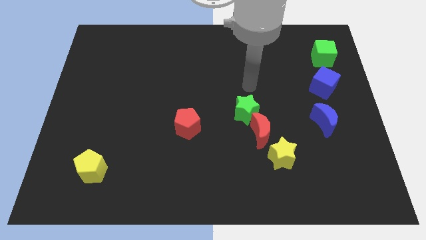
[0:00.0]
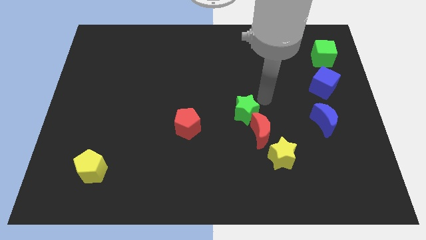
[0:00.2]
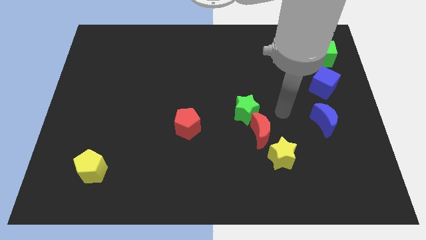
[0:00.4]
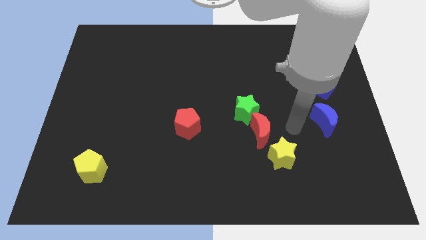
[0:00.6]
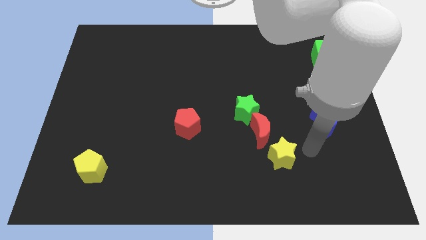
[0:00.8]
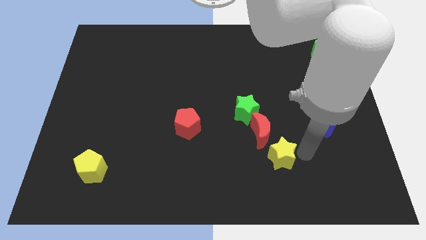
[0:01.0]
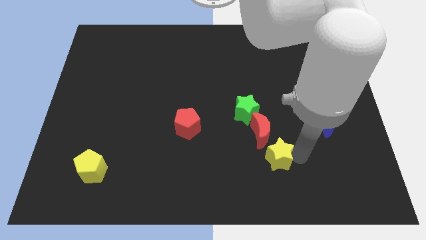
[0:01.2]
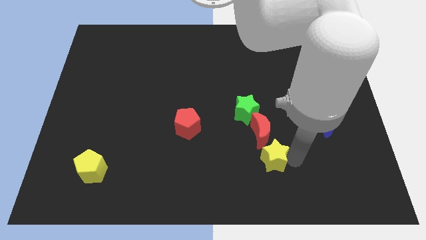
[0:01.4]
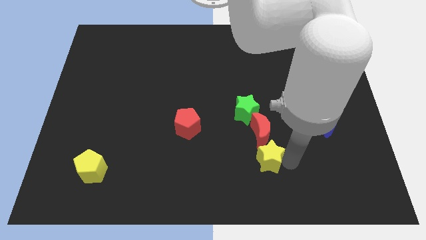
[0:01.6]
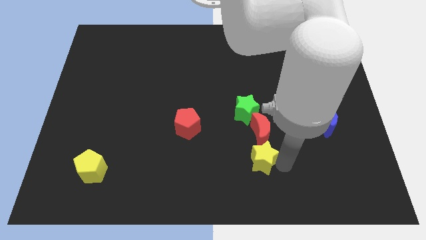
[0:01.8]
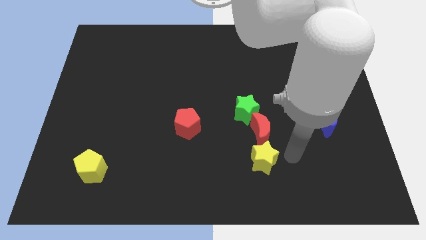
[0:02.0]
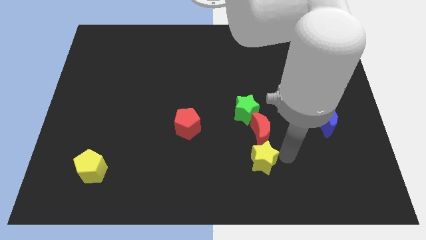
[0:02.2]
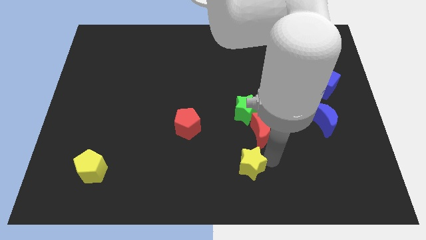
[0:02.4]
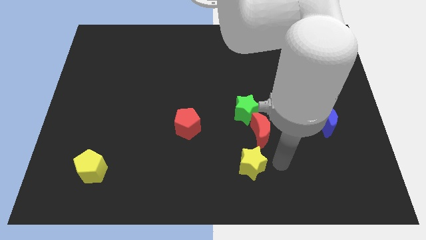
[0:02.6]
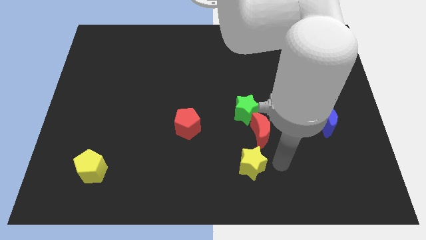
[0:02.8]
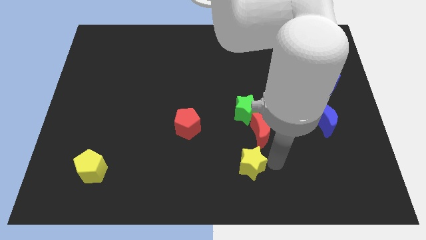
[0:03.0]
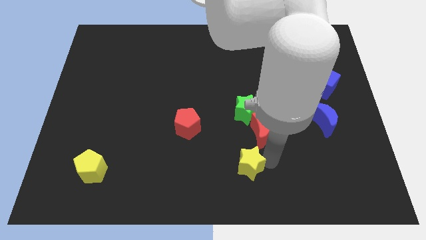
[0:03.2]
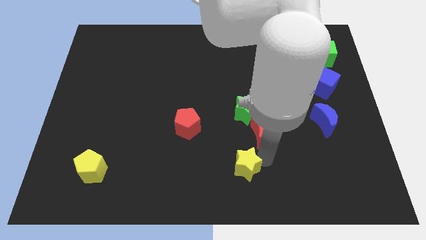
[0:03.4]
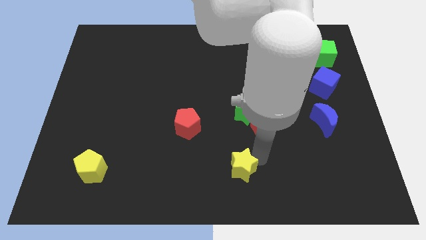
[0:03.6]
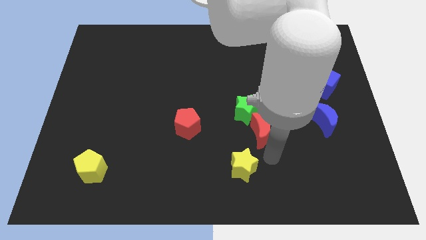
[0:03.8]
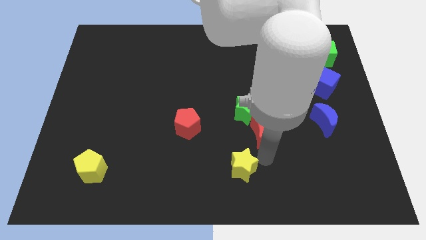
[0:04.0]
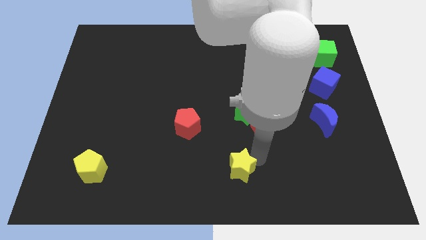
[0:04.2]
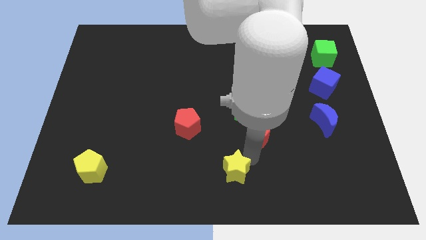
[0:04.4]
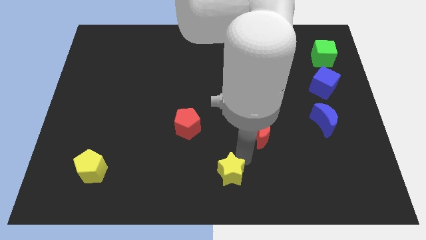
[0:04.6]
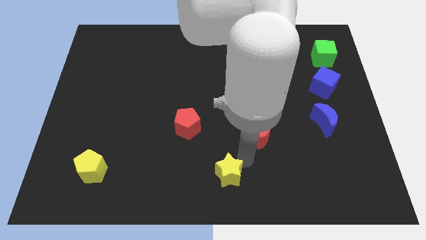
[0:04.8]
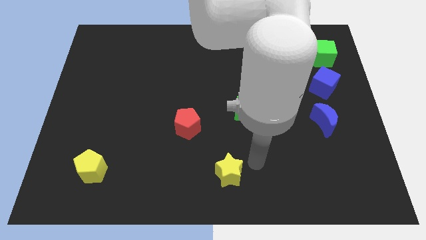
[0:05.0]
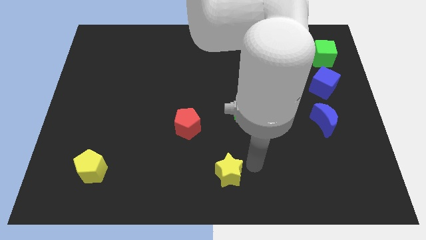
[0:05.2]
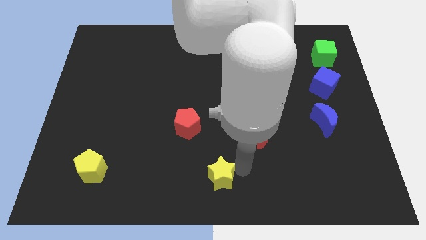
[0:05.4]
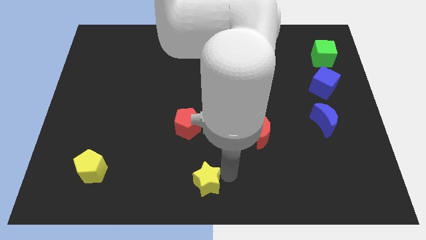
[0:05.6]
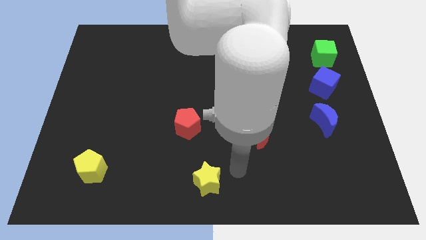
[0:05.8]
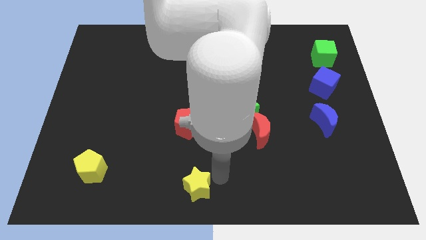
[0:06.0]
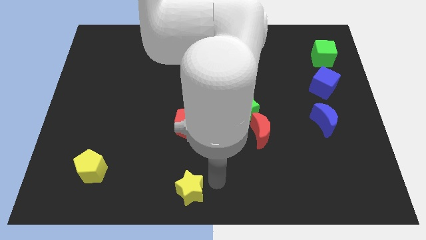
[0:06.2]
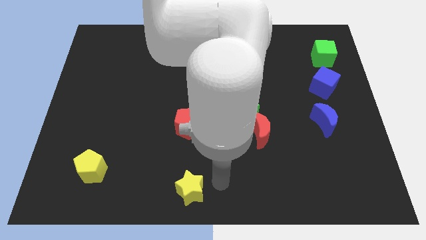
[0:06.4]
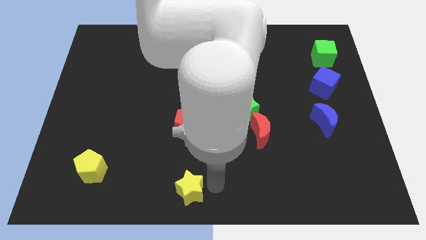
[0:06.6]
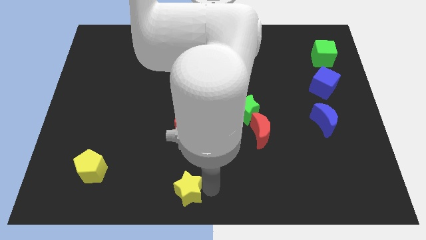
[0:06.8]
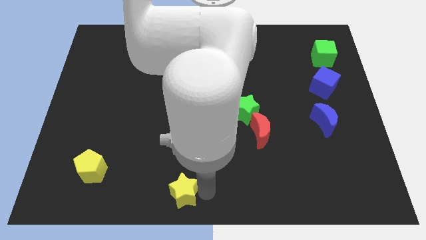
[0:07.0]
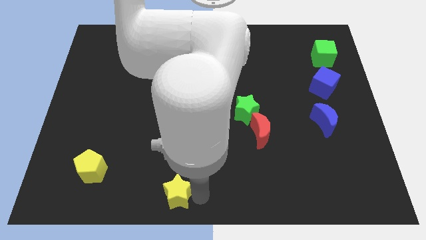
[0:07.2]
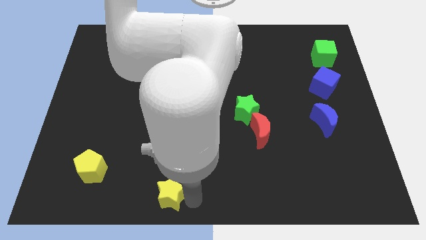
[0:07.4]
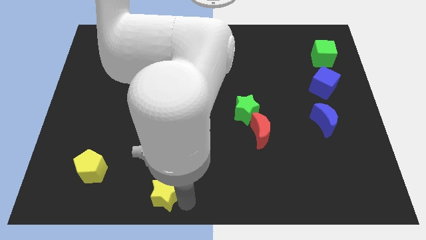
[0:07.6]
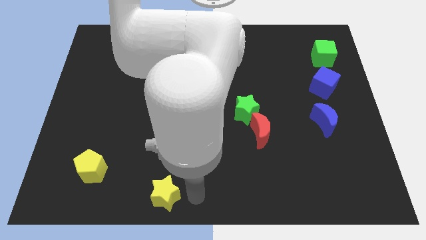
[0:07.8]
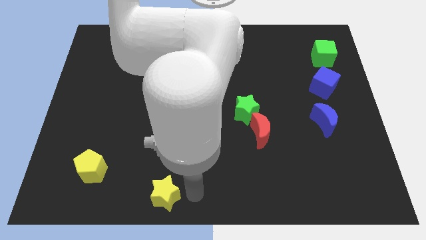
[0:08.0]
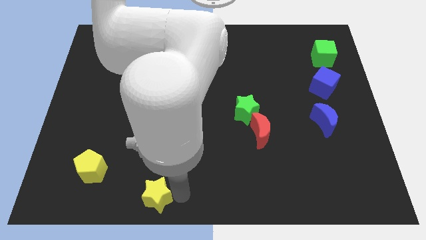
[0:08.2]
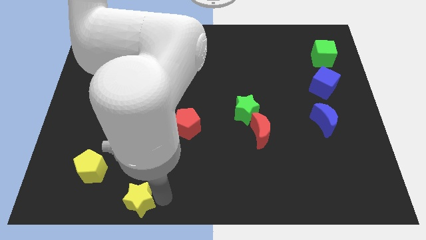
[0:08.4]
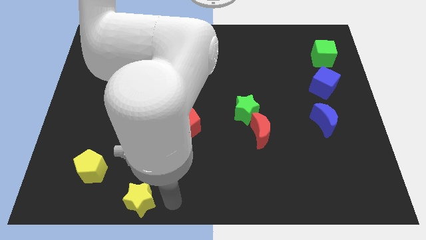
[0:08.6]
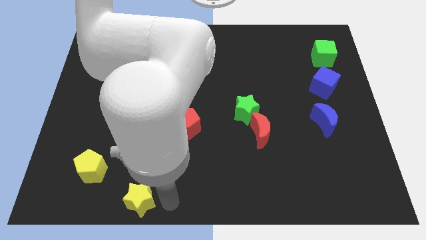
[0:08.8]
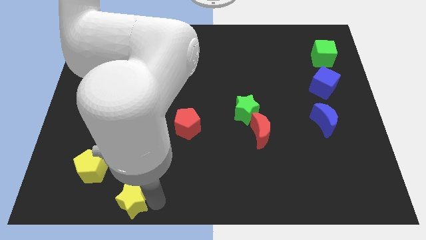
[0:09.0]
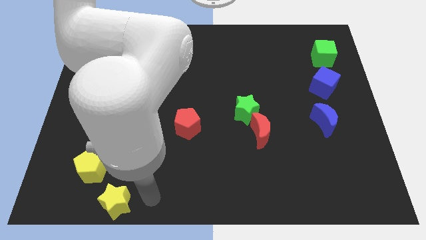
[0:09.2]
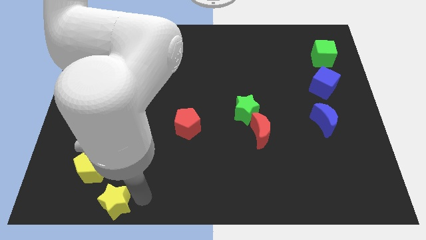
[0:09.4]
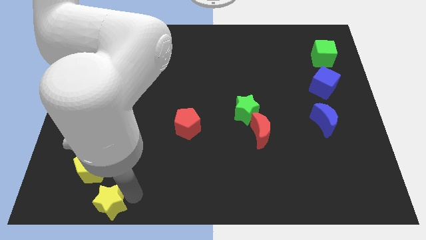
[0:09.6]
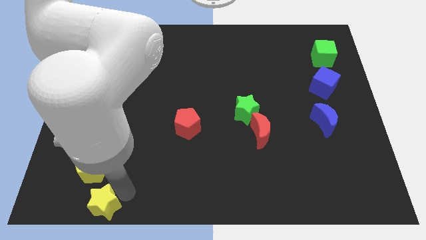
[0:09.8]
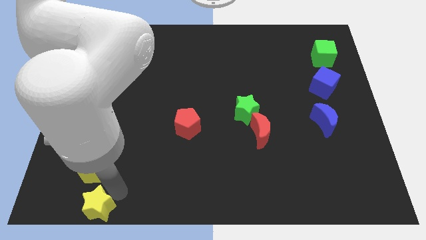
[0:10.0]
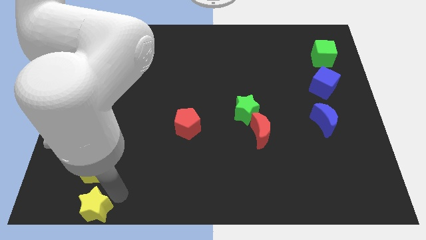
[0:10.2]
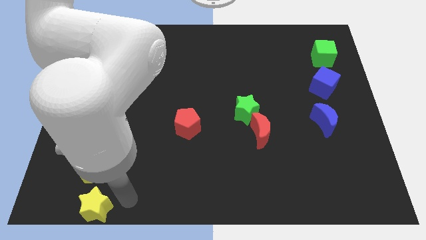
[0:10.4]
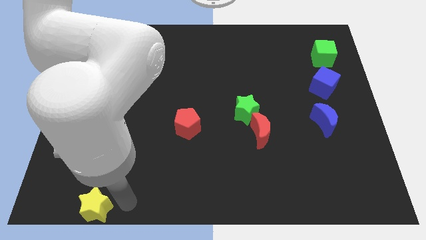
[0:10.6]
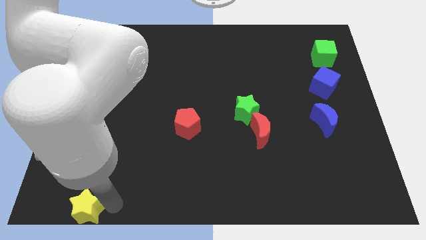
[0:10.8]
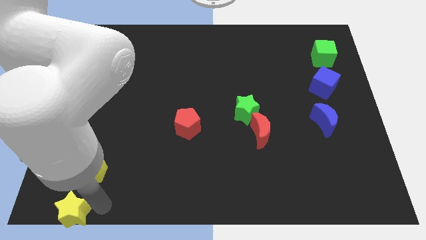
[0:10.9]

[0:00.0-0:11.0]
move the yellow star to the bottom left of the board

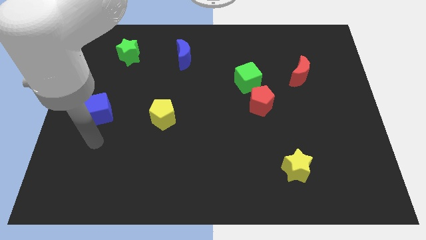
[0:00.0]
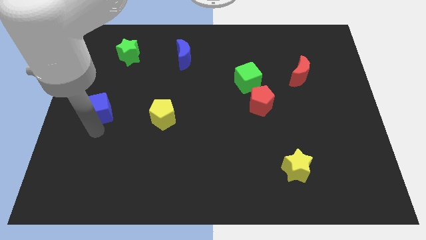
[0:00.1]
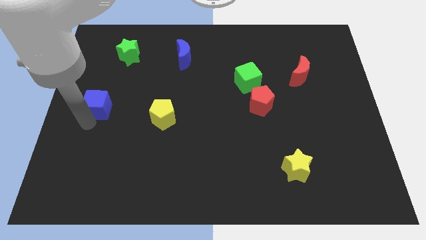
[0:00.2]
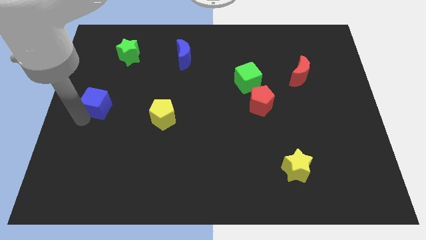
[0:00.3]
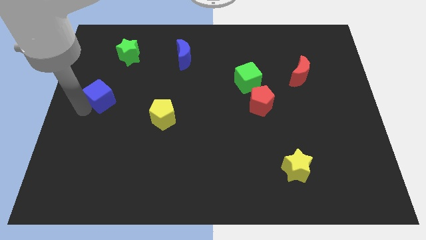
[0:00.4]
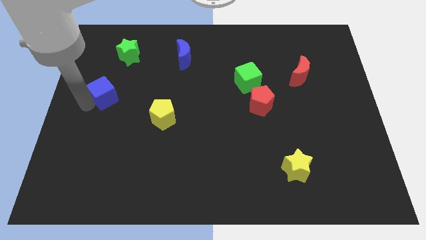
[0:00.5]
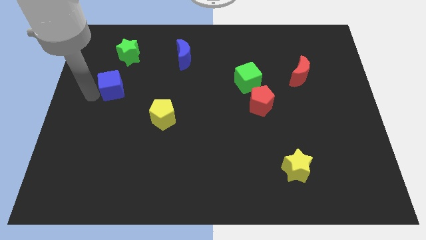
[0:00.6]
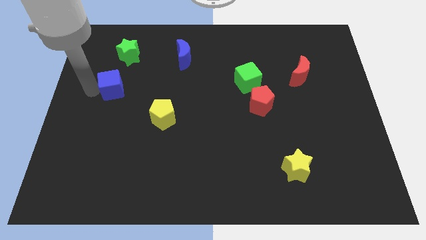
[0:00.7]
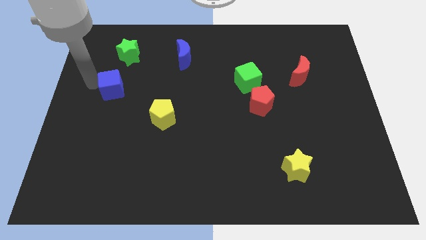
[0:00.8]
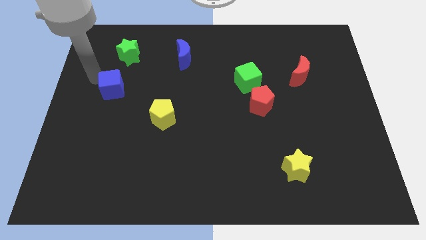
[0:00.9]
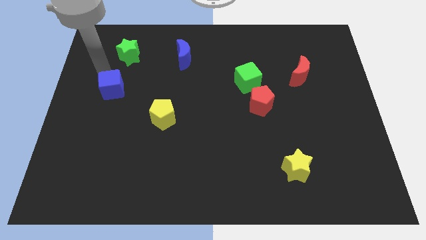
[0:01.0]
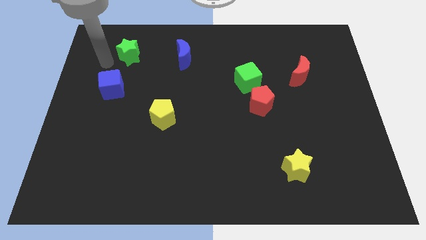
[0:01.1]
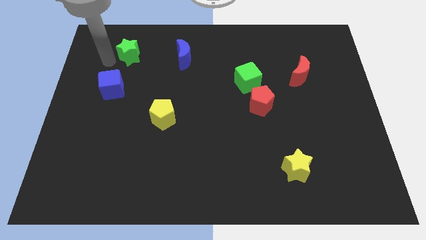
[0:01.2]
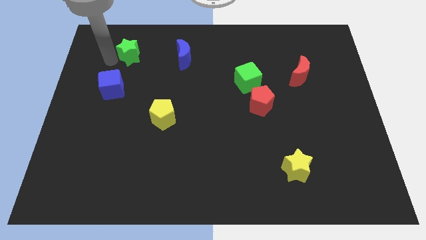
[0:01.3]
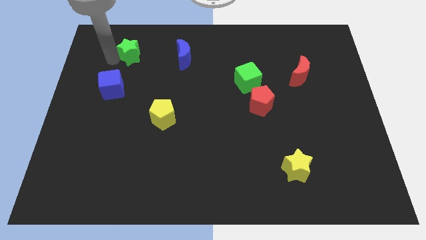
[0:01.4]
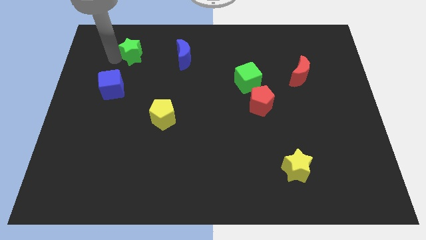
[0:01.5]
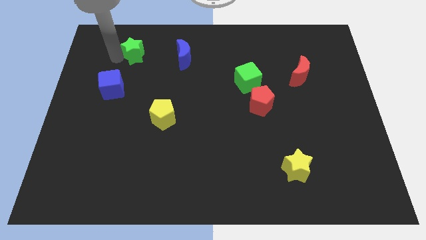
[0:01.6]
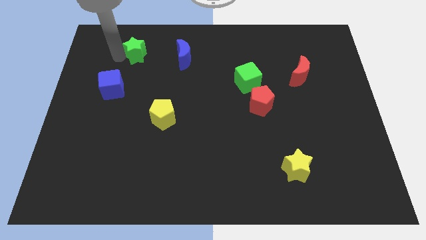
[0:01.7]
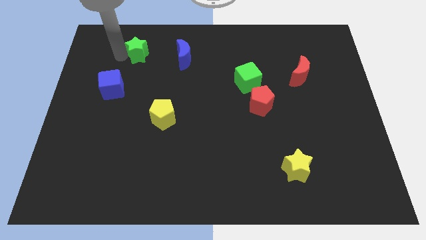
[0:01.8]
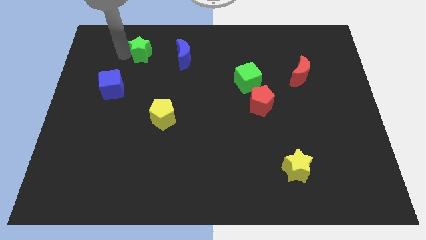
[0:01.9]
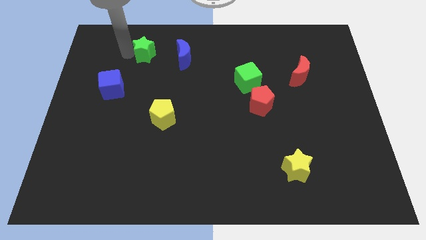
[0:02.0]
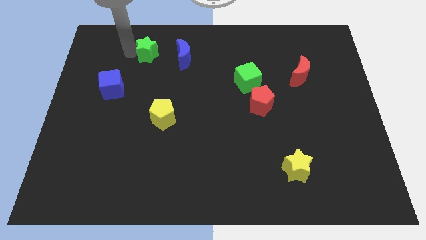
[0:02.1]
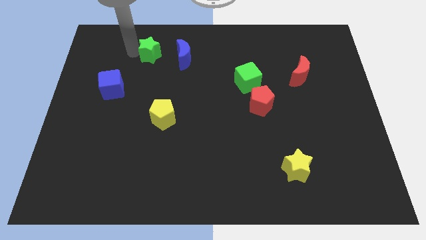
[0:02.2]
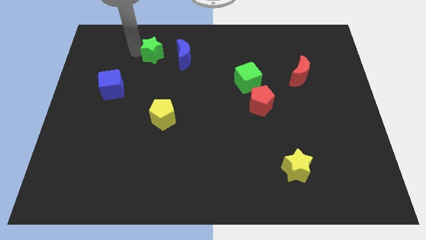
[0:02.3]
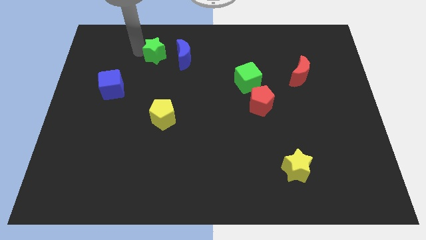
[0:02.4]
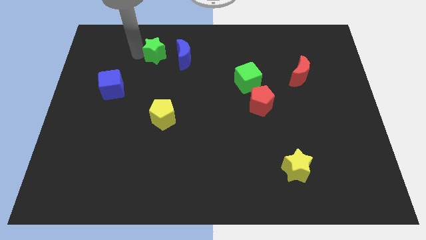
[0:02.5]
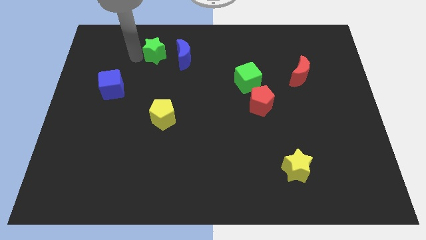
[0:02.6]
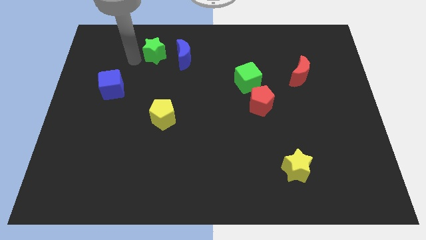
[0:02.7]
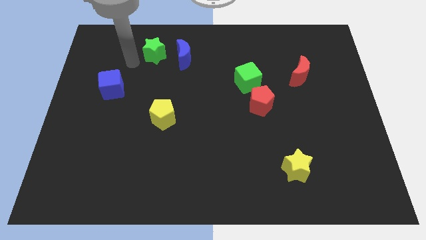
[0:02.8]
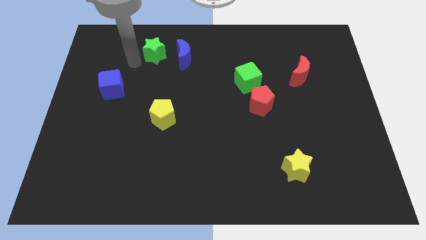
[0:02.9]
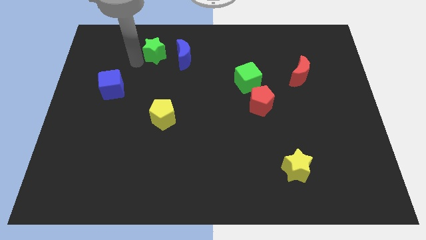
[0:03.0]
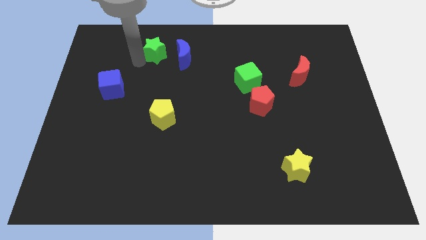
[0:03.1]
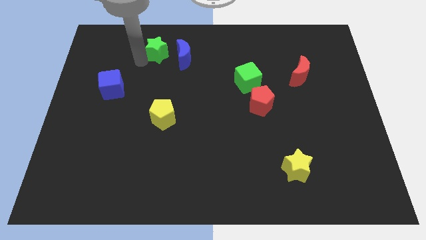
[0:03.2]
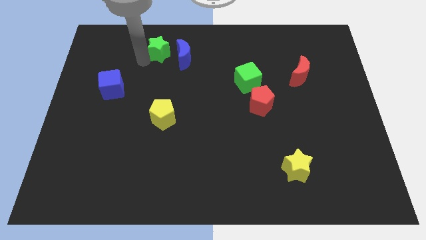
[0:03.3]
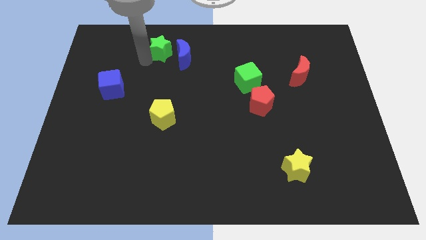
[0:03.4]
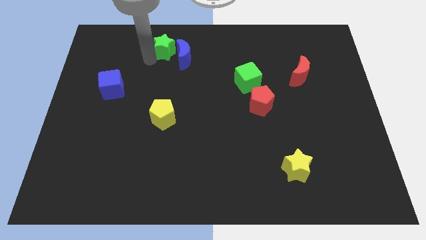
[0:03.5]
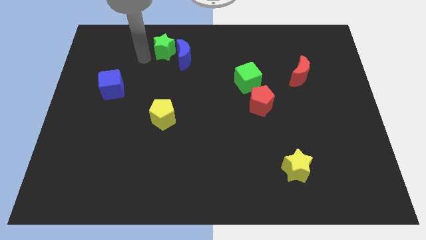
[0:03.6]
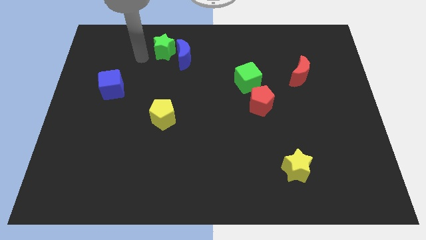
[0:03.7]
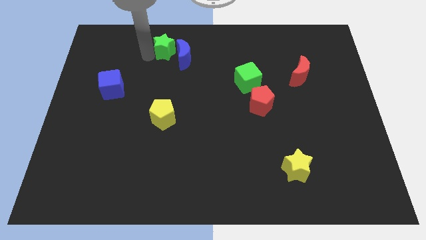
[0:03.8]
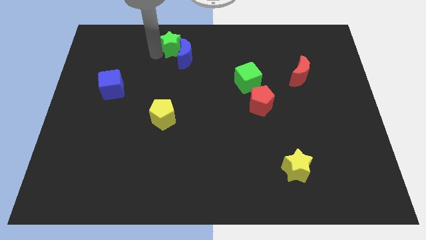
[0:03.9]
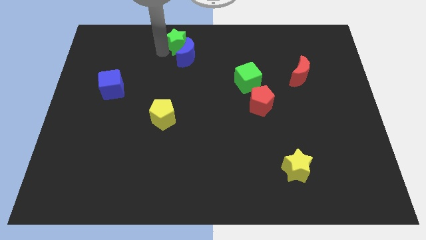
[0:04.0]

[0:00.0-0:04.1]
put the green star to the top
